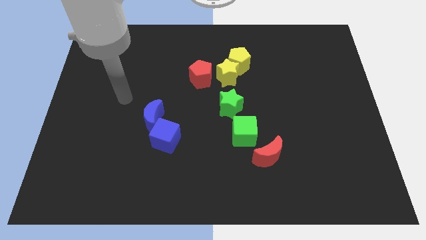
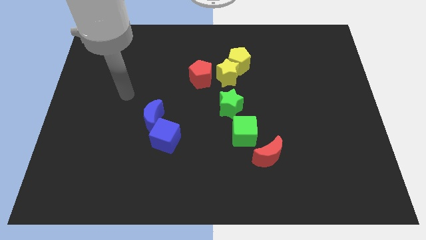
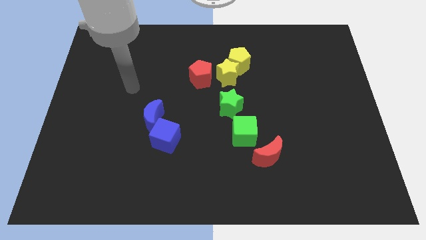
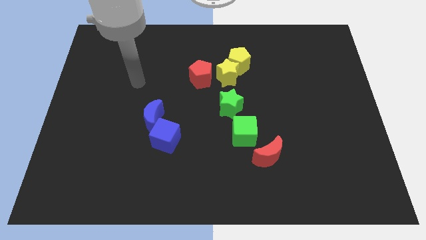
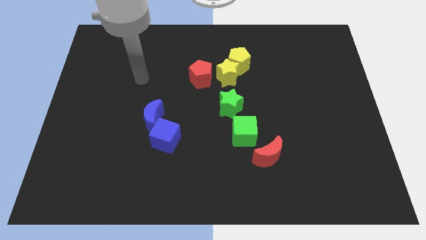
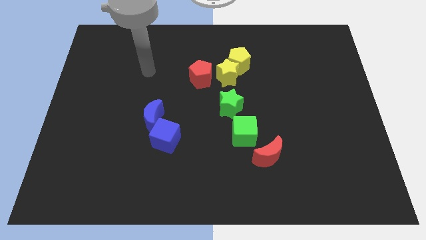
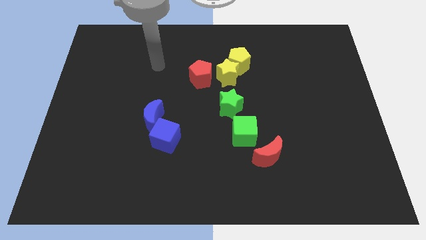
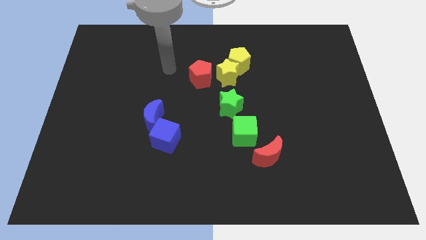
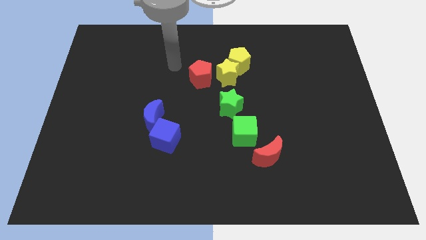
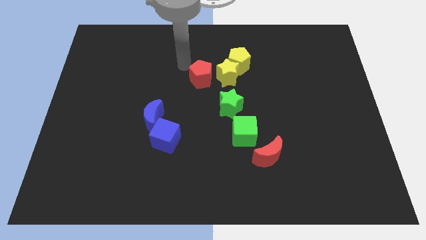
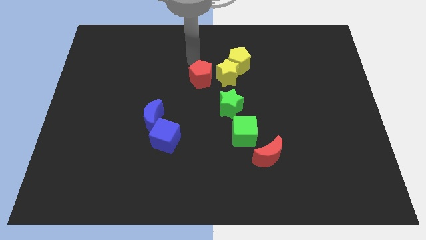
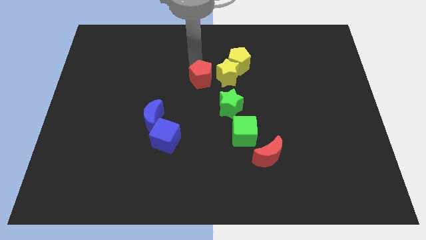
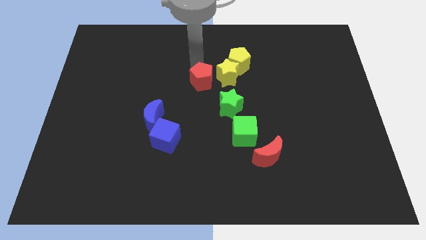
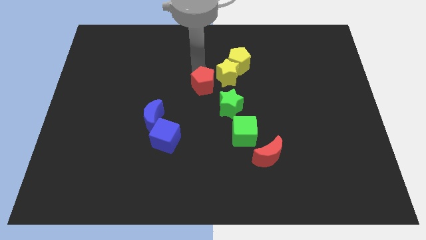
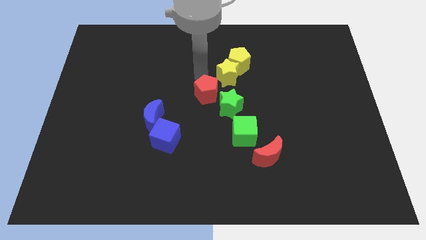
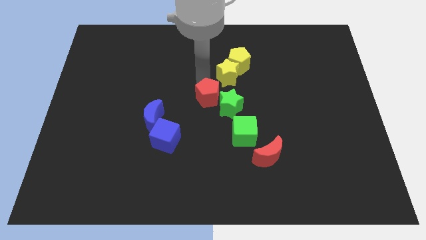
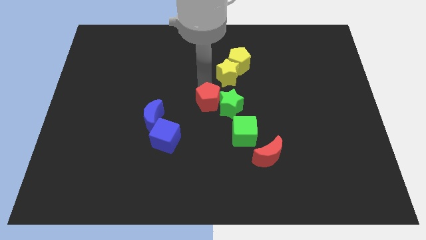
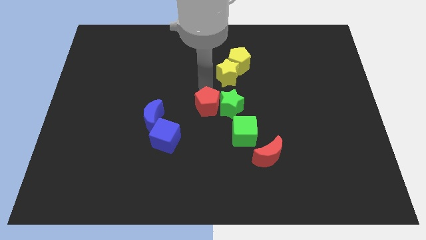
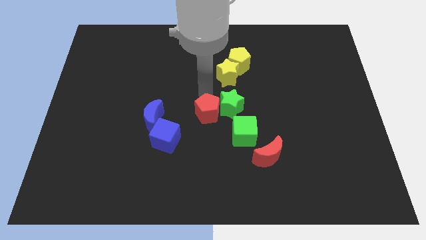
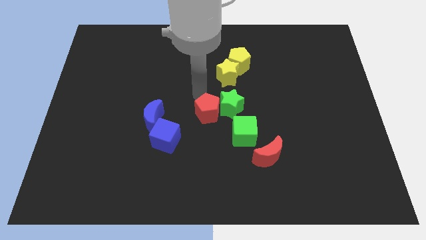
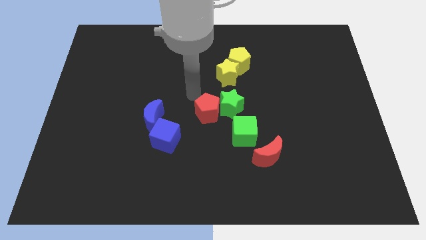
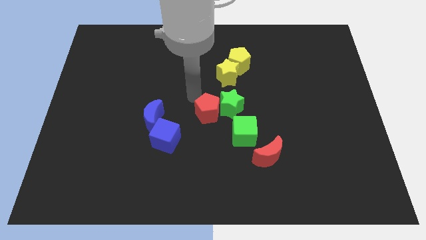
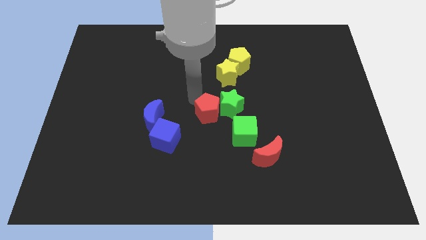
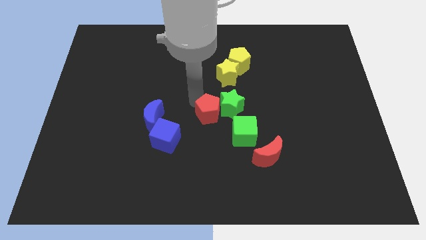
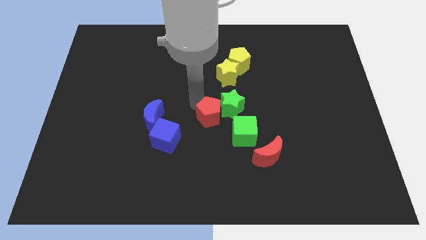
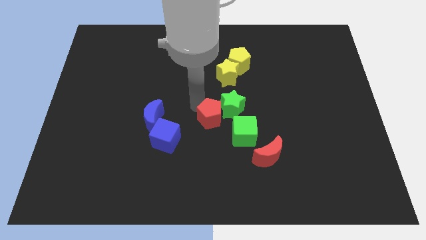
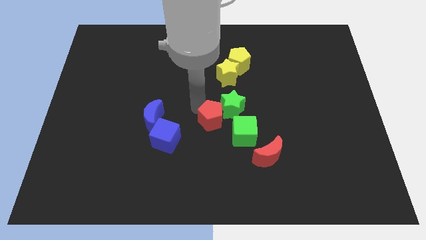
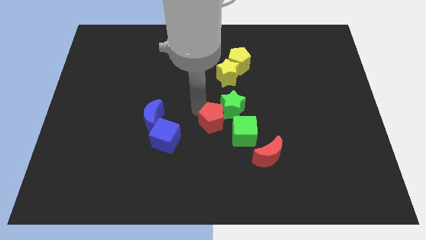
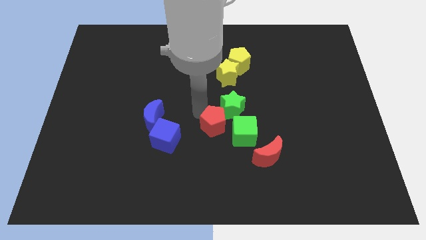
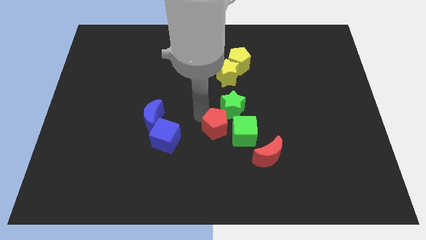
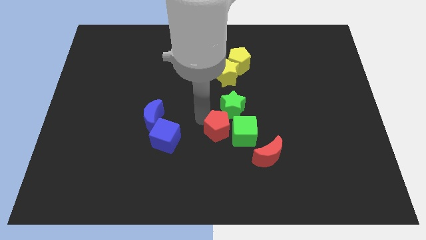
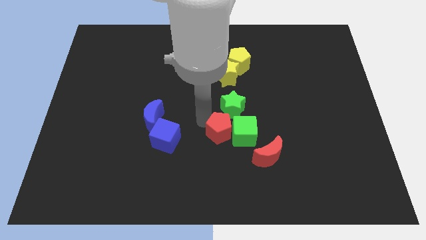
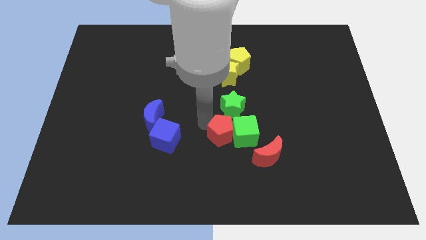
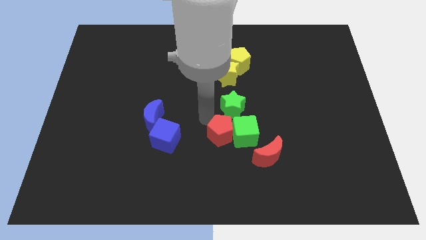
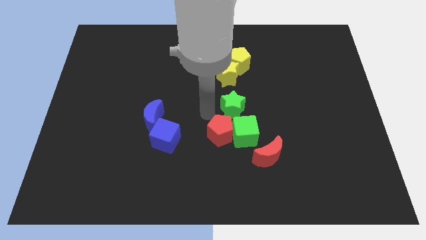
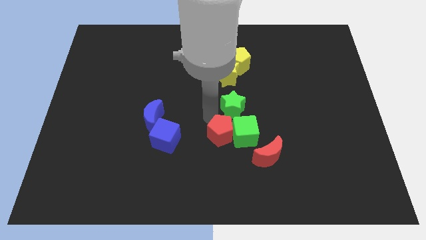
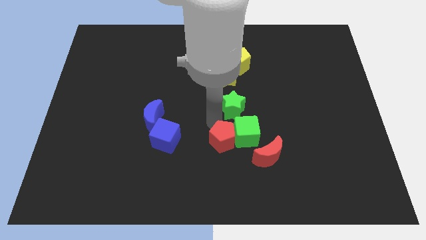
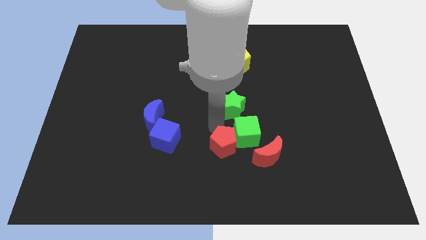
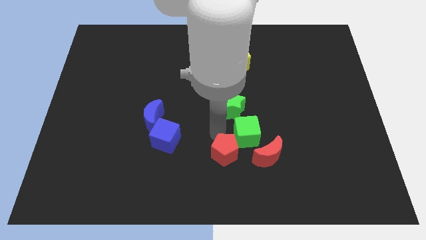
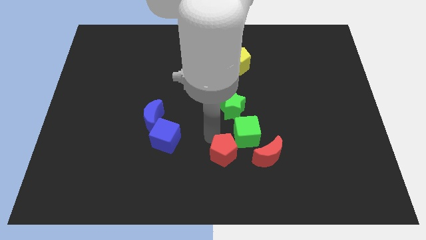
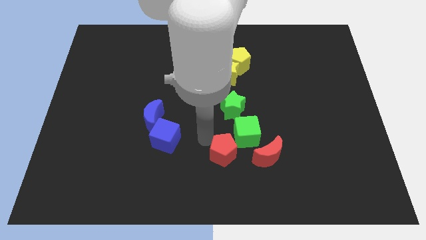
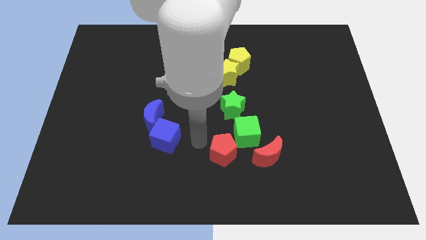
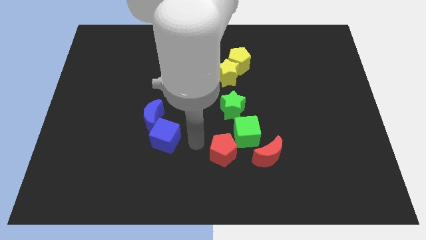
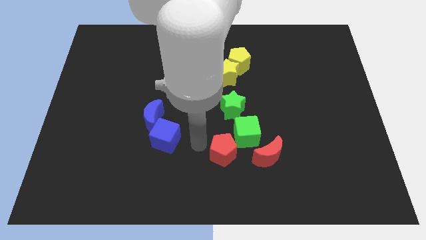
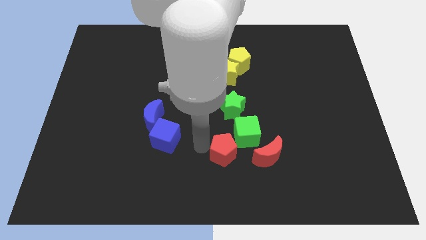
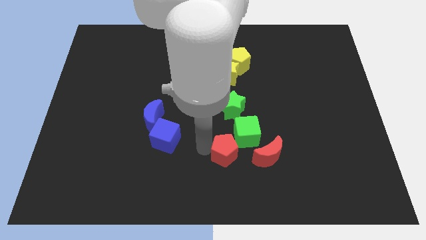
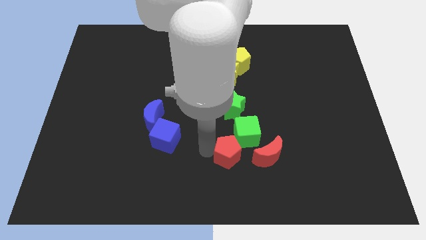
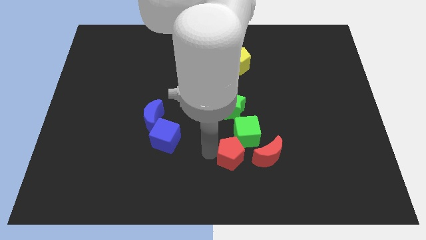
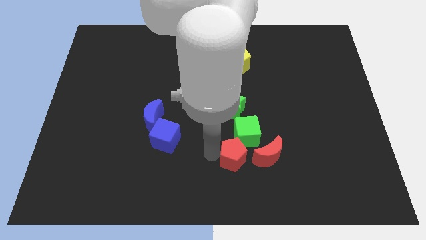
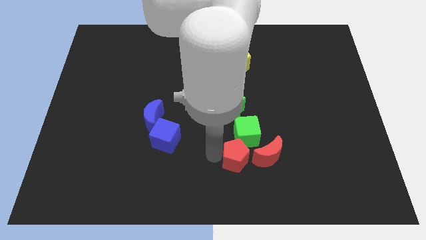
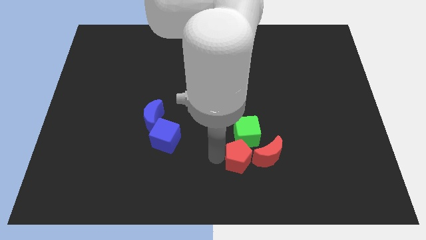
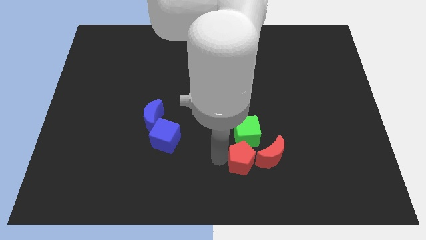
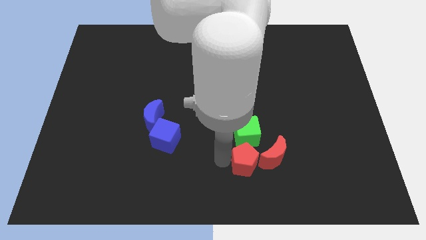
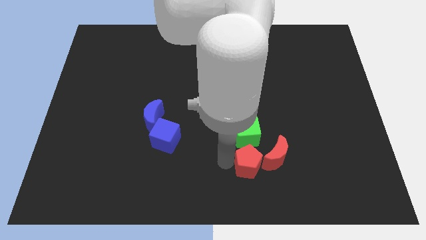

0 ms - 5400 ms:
put the red pentagon towards the red moon

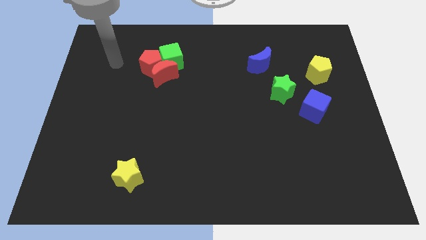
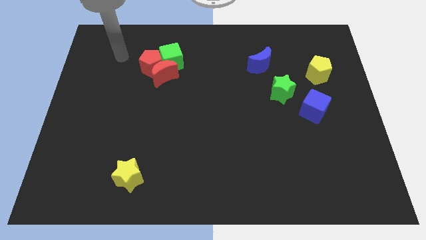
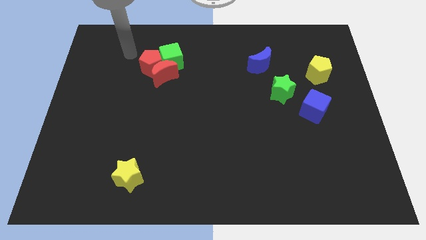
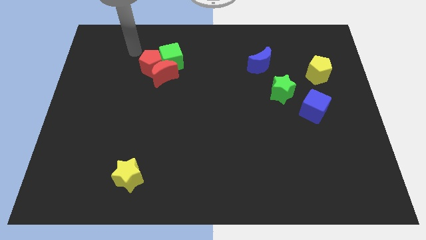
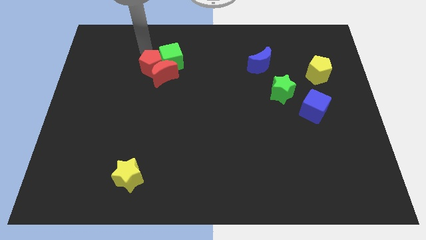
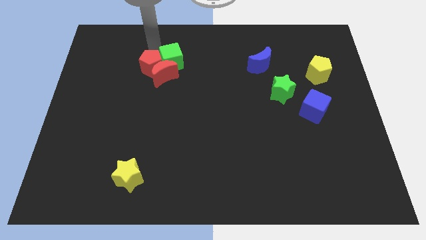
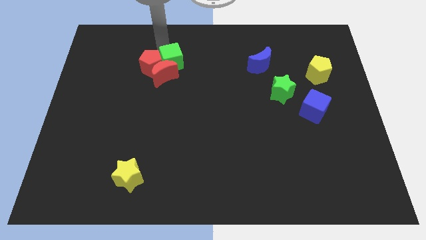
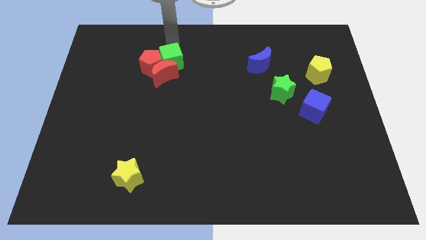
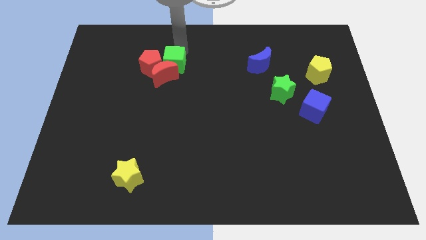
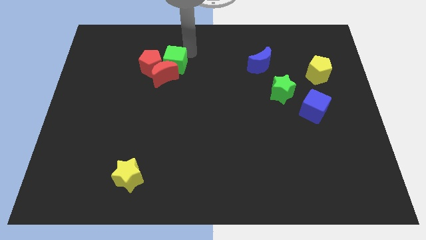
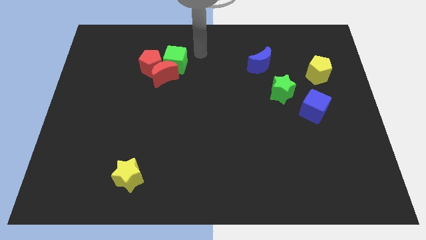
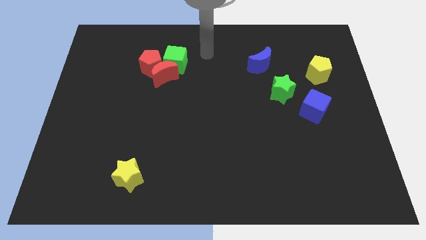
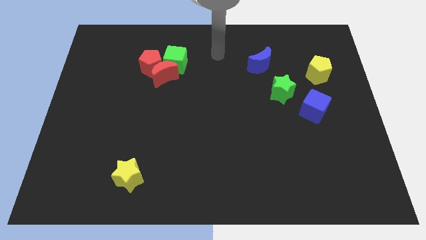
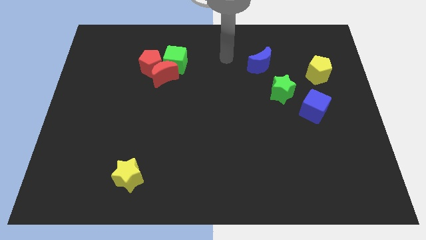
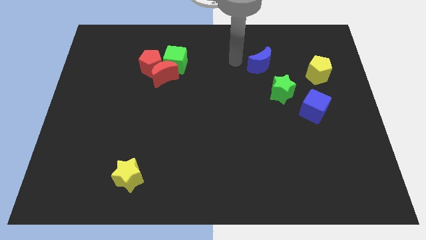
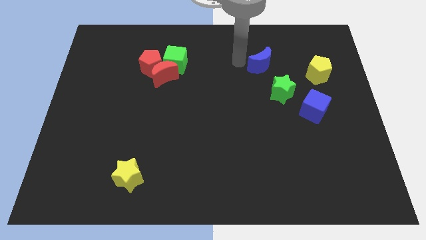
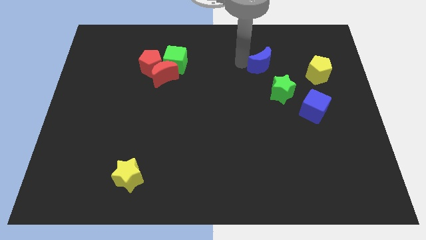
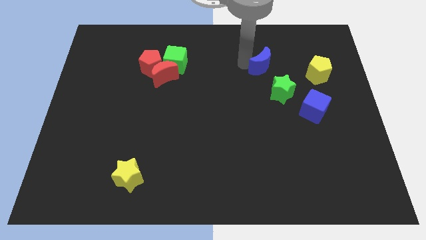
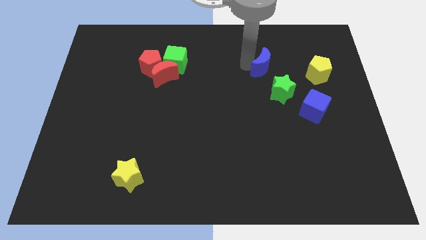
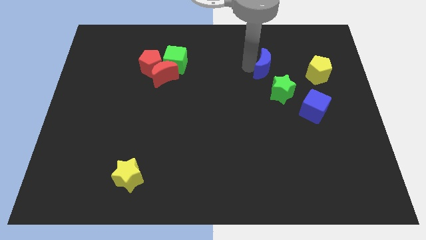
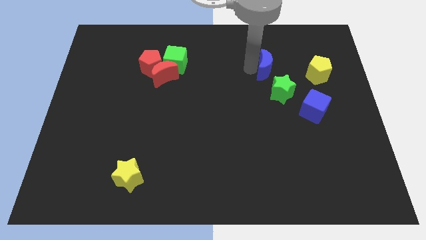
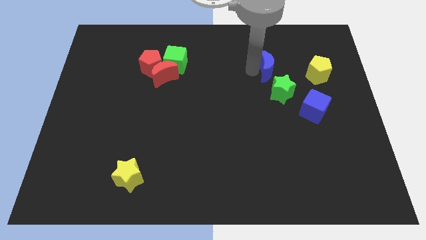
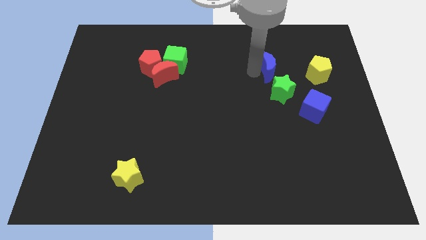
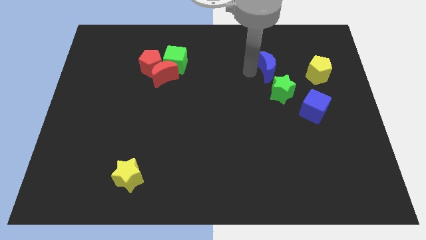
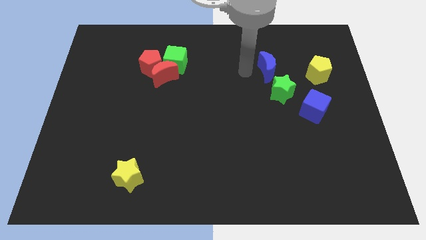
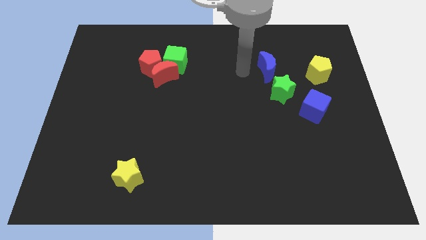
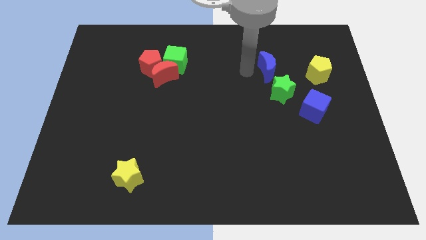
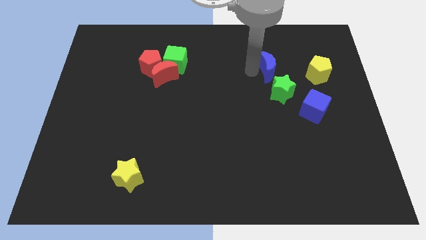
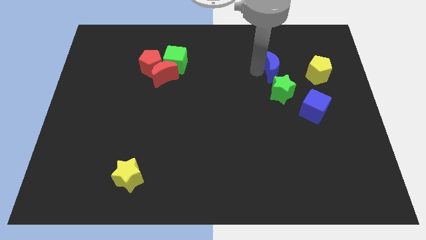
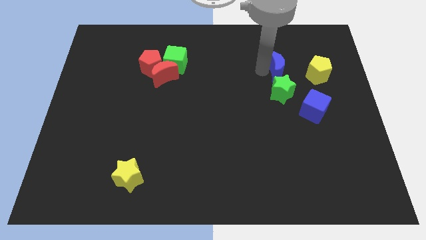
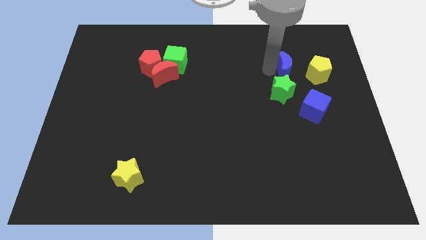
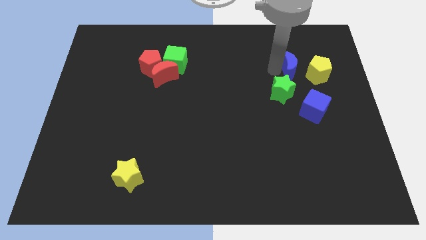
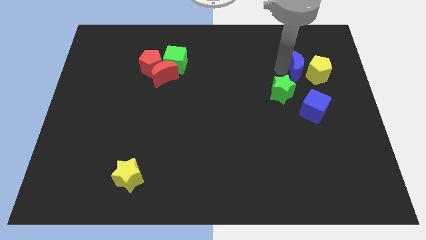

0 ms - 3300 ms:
move the blue moon towards the yellow pentagon
